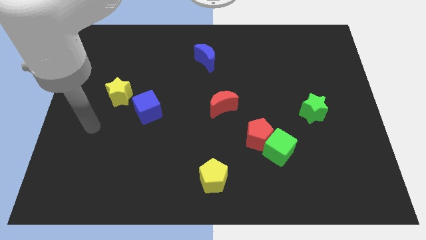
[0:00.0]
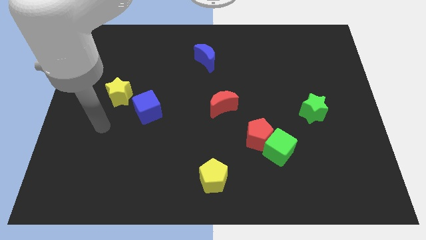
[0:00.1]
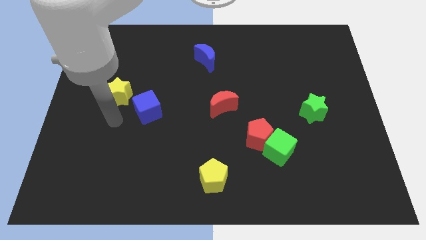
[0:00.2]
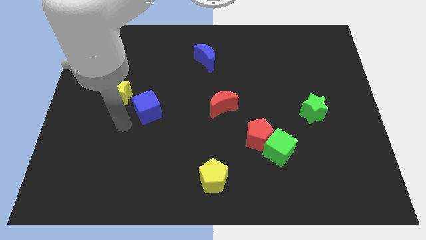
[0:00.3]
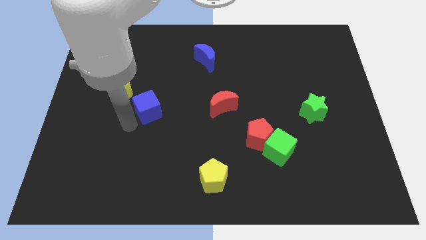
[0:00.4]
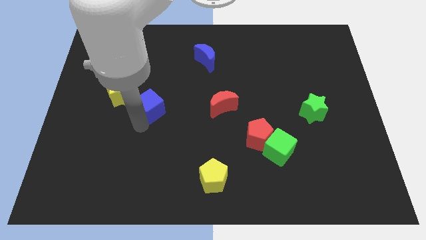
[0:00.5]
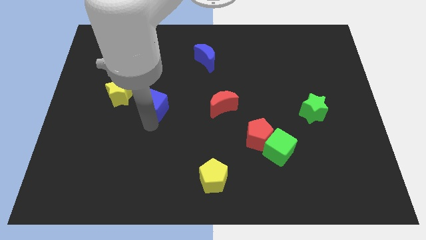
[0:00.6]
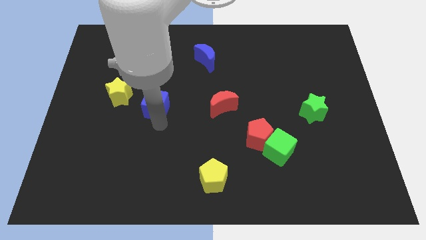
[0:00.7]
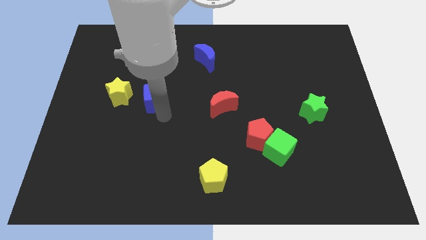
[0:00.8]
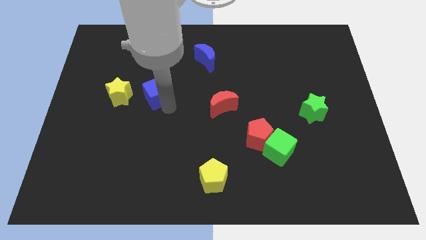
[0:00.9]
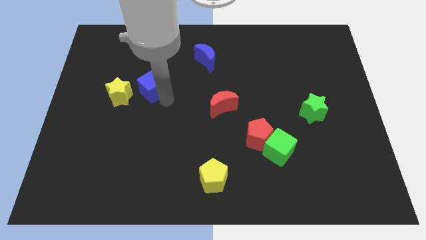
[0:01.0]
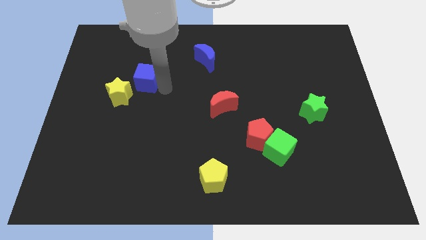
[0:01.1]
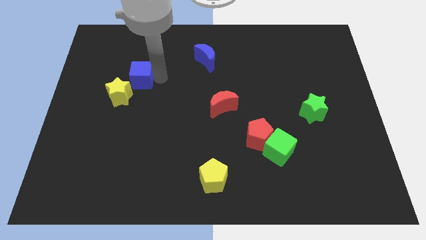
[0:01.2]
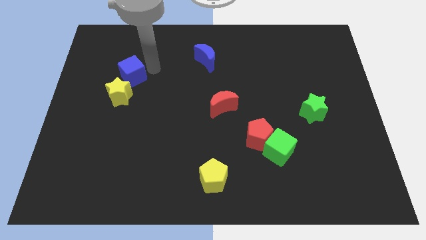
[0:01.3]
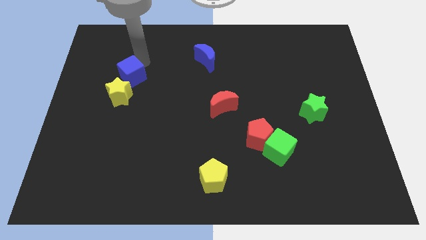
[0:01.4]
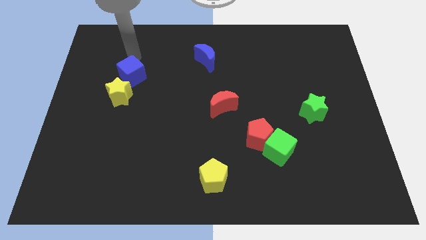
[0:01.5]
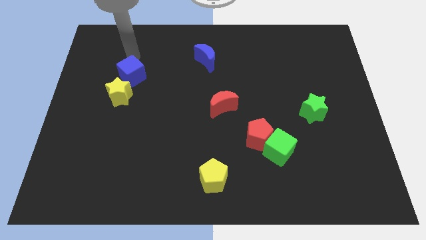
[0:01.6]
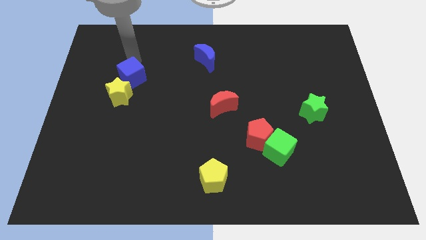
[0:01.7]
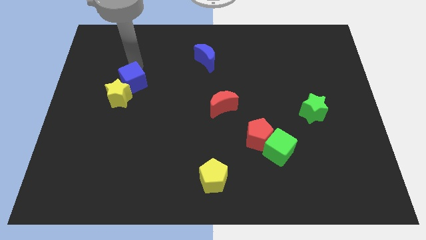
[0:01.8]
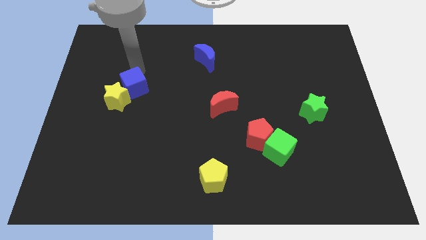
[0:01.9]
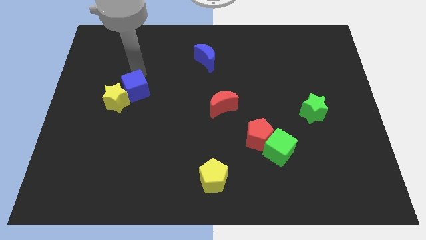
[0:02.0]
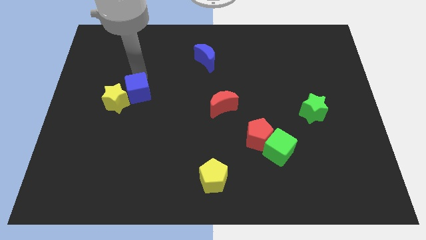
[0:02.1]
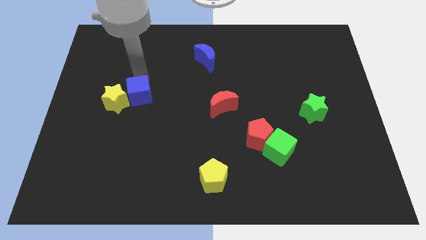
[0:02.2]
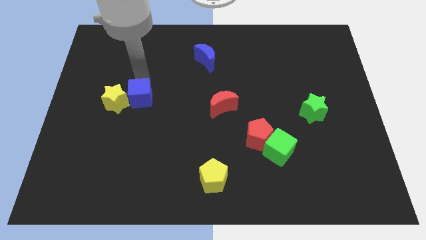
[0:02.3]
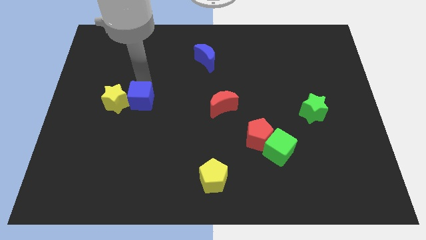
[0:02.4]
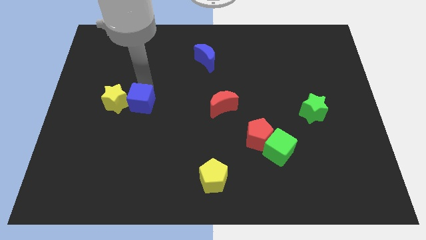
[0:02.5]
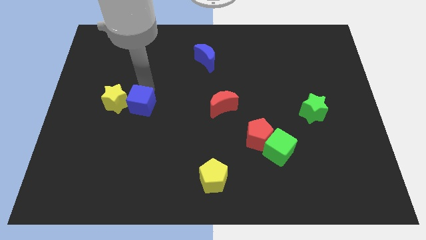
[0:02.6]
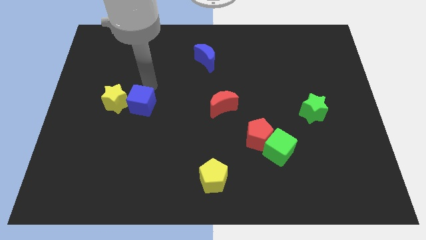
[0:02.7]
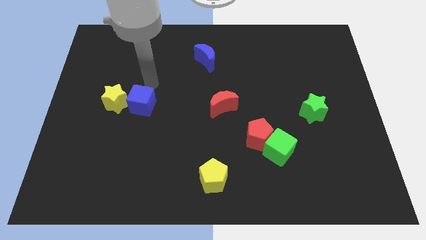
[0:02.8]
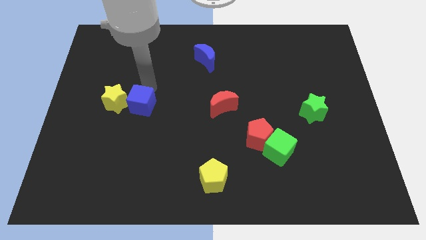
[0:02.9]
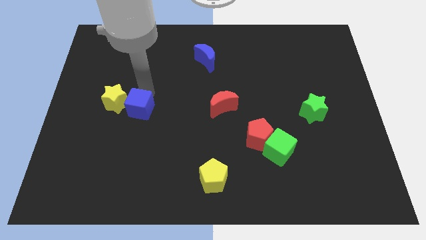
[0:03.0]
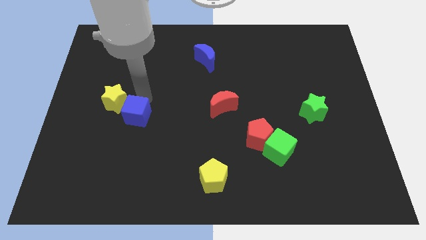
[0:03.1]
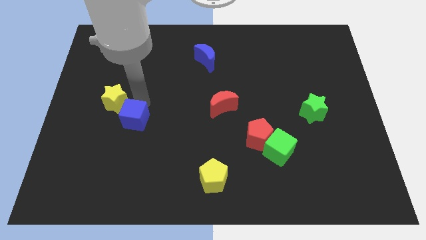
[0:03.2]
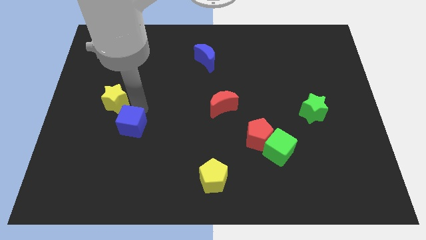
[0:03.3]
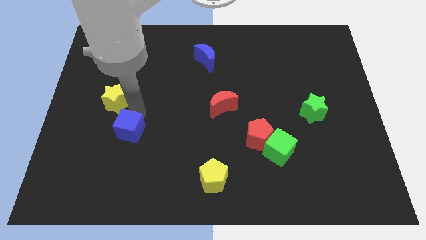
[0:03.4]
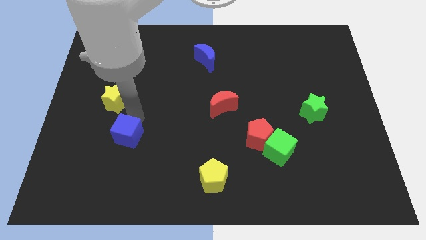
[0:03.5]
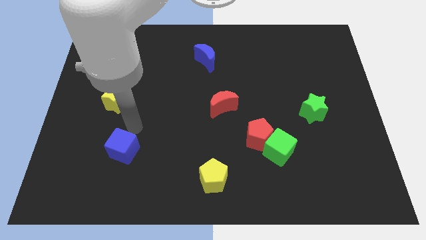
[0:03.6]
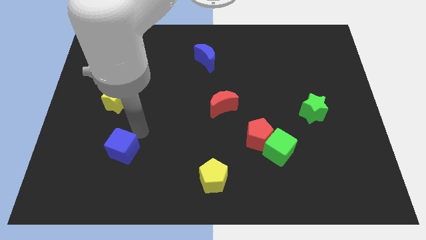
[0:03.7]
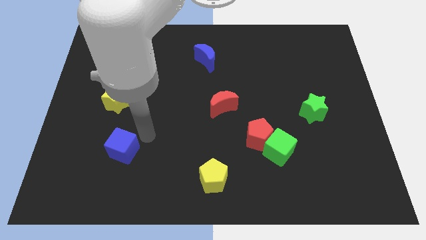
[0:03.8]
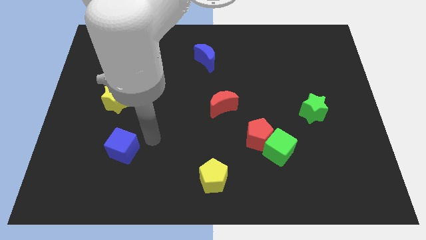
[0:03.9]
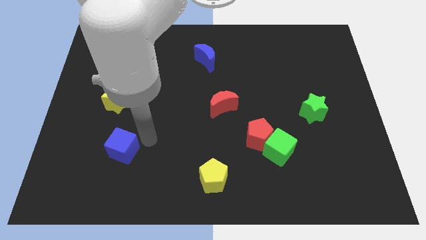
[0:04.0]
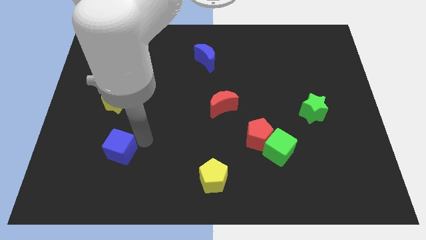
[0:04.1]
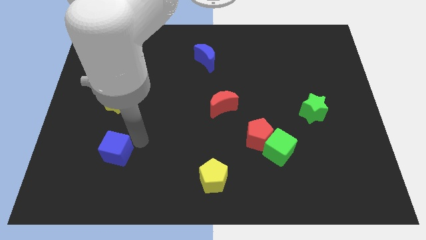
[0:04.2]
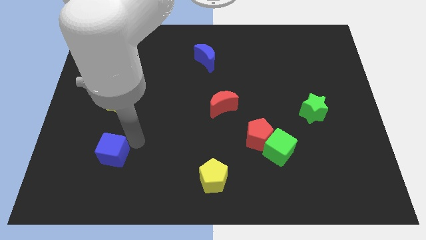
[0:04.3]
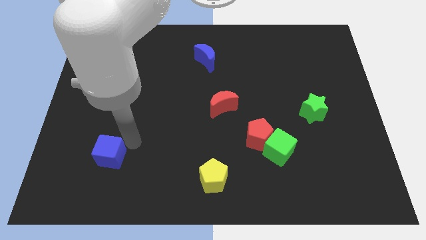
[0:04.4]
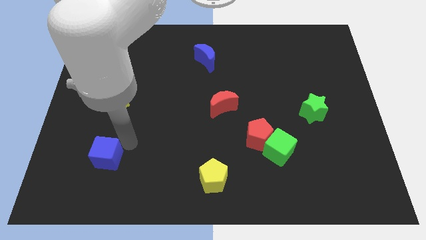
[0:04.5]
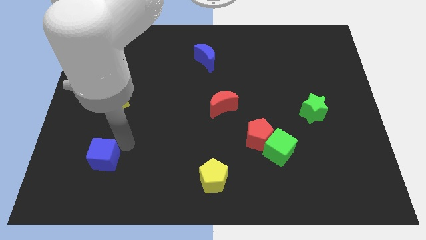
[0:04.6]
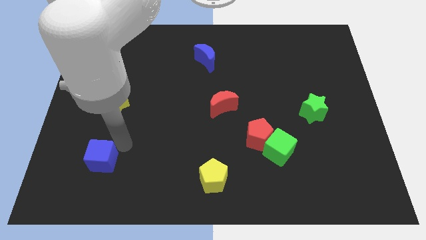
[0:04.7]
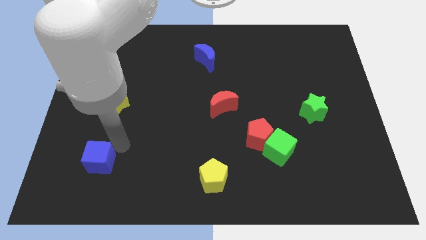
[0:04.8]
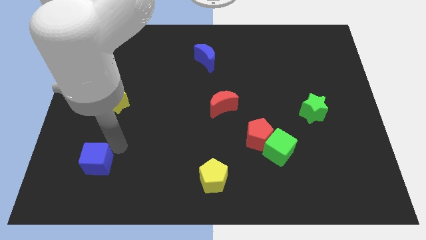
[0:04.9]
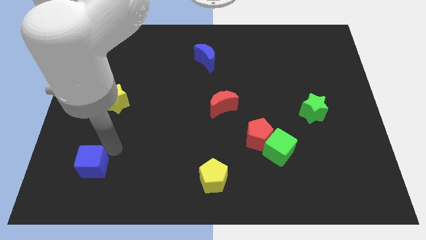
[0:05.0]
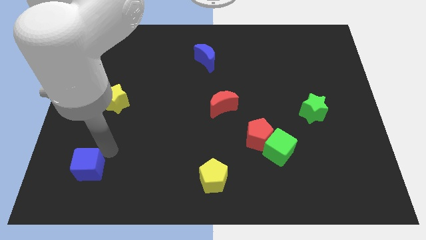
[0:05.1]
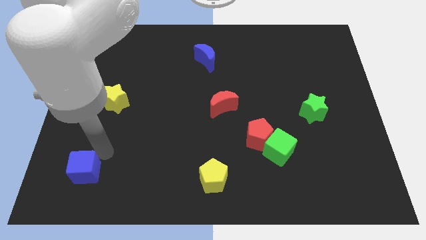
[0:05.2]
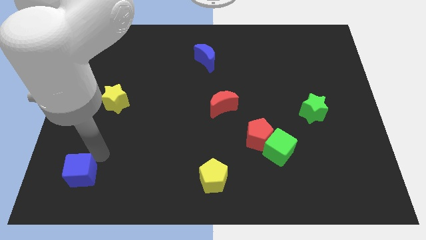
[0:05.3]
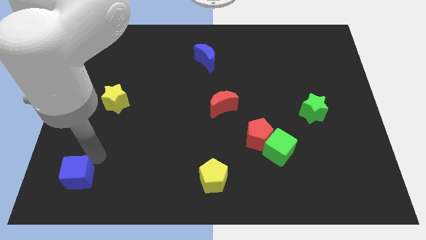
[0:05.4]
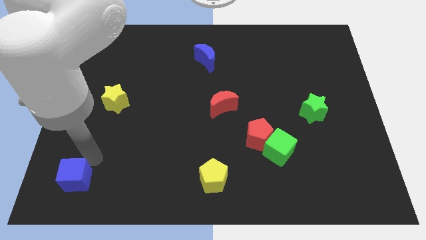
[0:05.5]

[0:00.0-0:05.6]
put the blue cube to the bottom left
